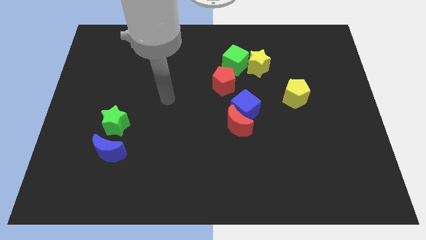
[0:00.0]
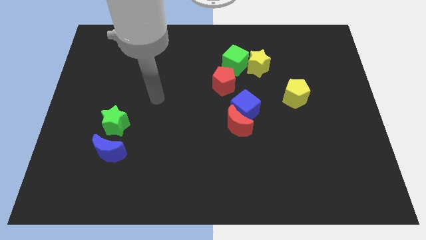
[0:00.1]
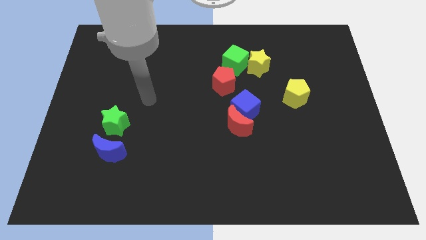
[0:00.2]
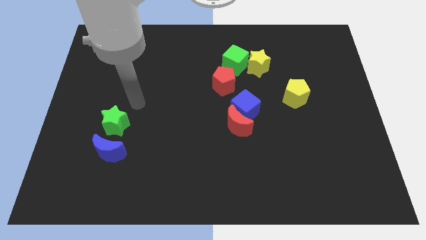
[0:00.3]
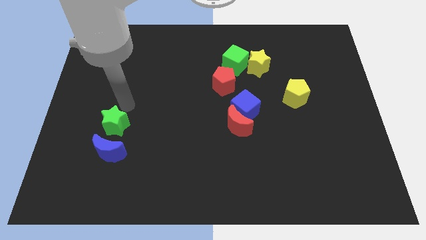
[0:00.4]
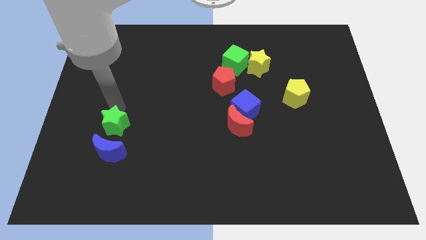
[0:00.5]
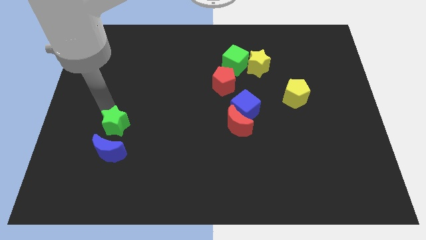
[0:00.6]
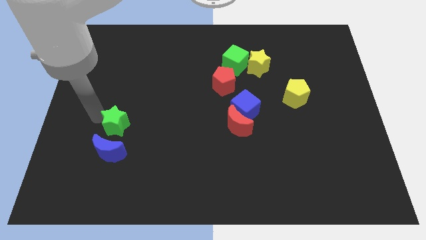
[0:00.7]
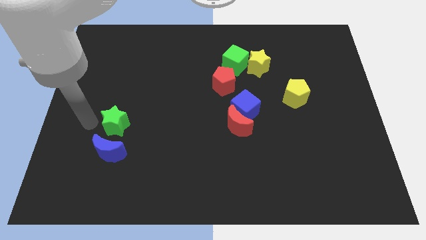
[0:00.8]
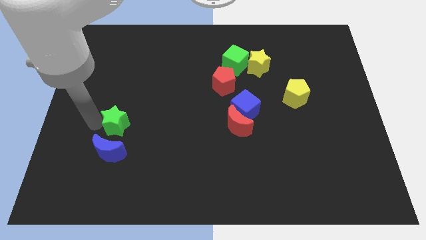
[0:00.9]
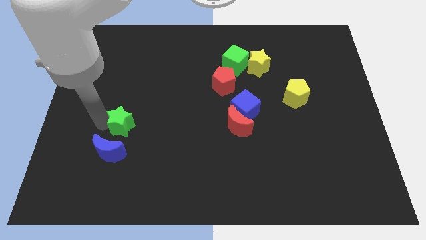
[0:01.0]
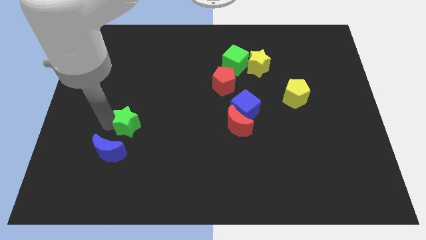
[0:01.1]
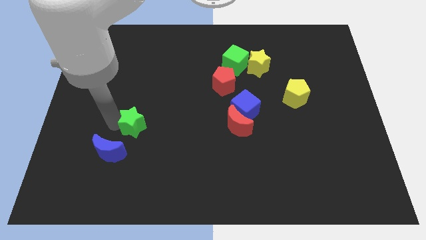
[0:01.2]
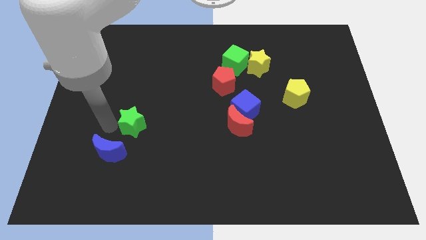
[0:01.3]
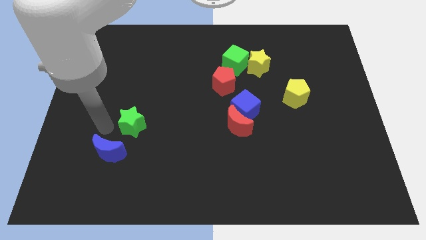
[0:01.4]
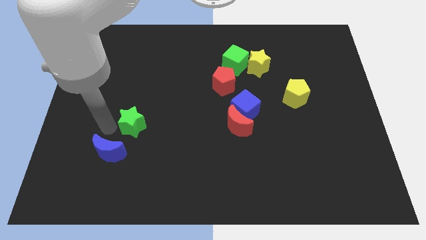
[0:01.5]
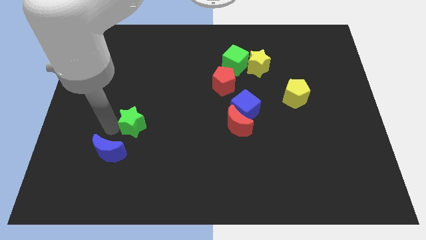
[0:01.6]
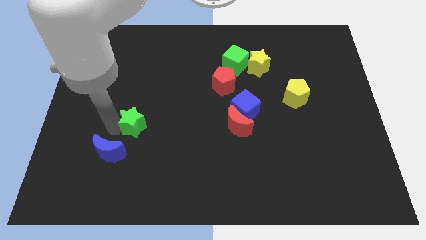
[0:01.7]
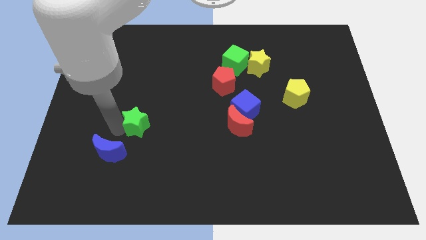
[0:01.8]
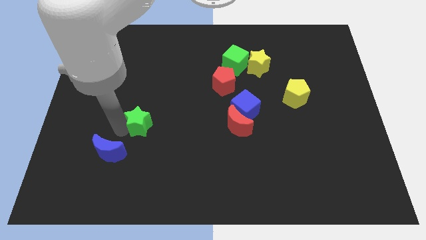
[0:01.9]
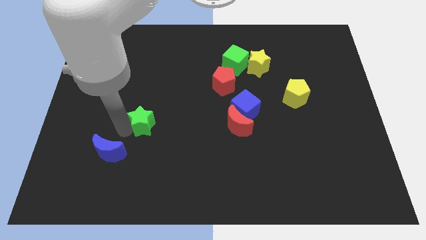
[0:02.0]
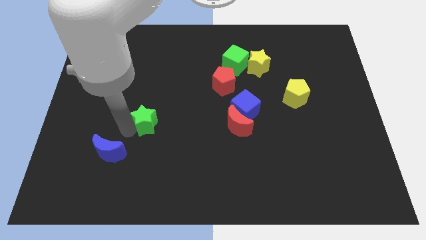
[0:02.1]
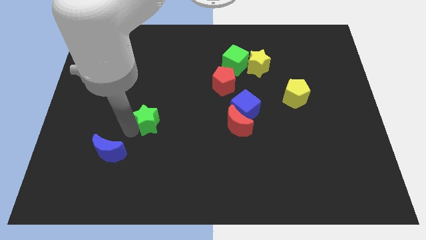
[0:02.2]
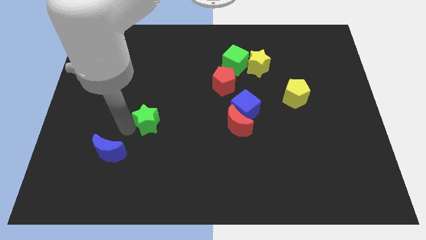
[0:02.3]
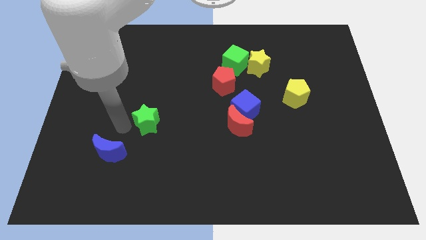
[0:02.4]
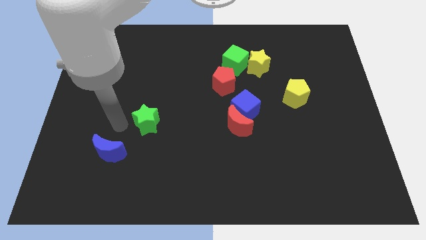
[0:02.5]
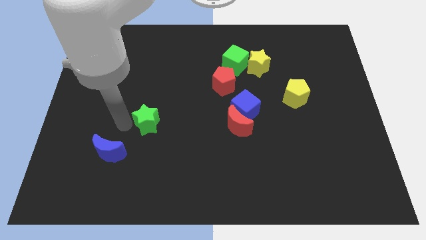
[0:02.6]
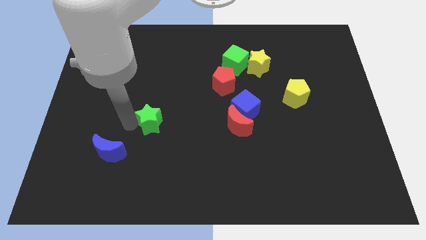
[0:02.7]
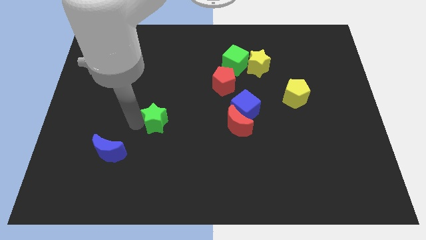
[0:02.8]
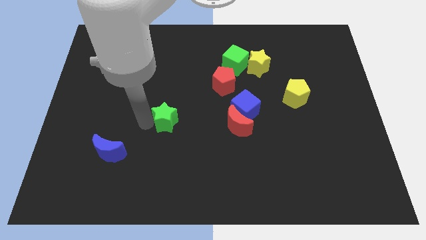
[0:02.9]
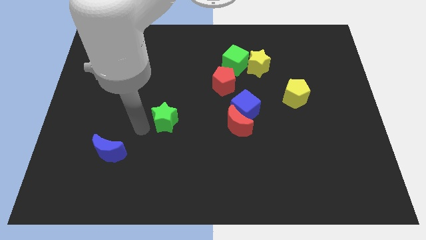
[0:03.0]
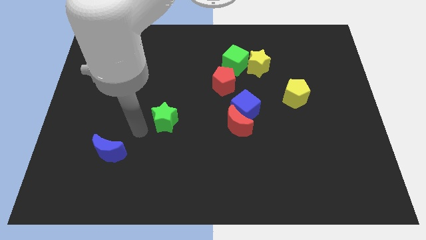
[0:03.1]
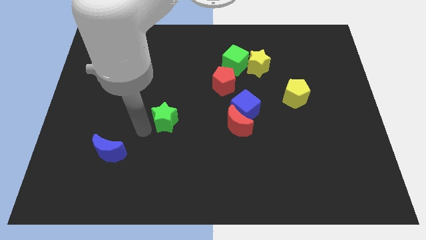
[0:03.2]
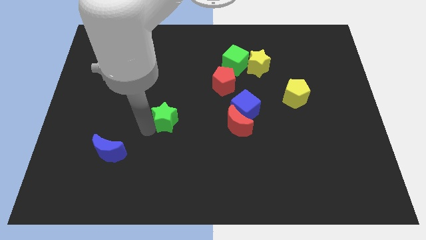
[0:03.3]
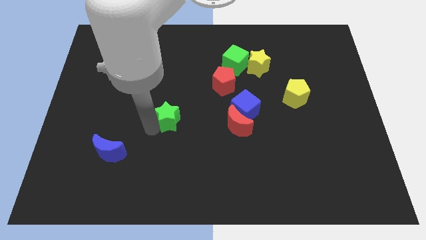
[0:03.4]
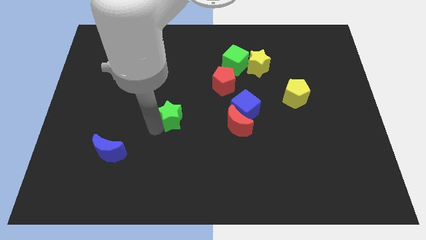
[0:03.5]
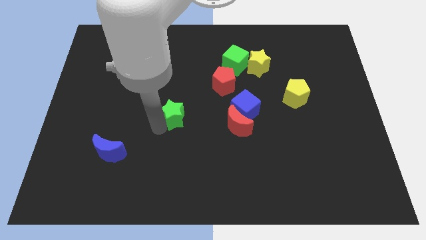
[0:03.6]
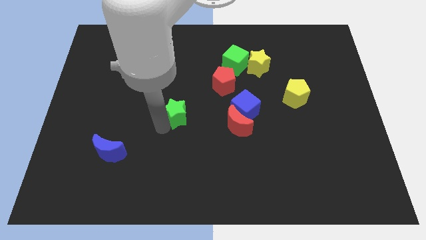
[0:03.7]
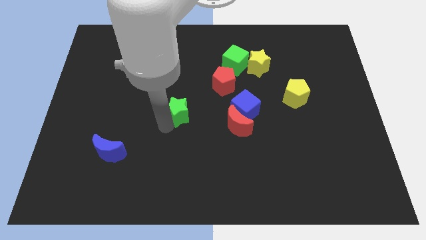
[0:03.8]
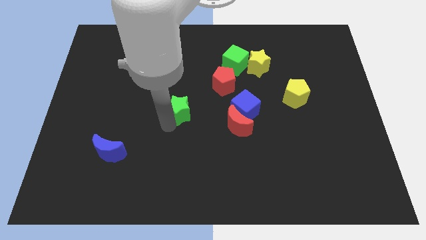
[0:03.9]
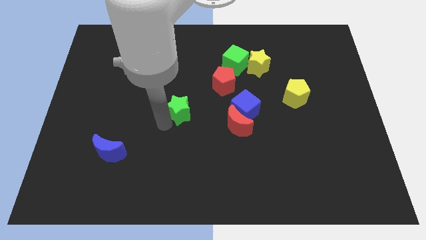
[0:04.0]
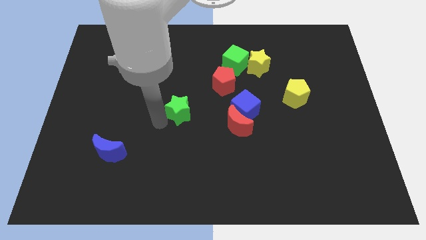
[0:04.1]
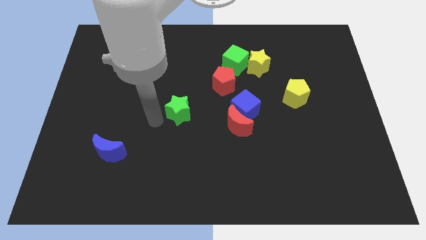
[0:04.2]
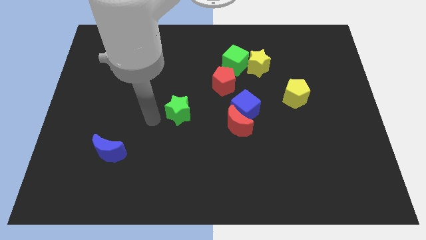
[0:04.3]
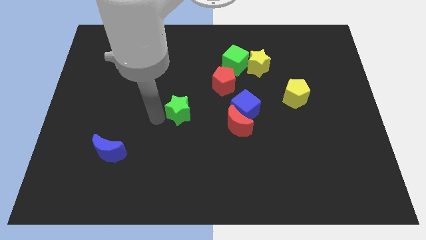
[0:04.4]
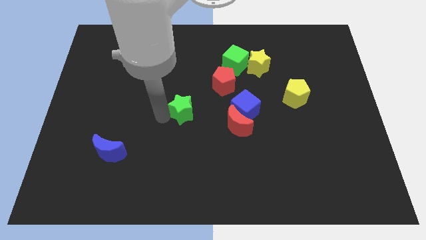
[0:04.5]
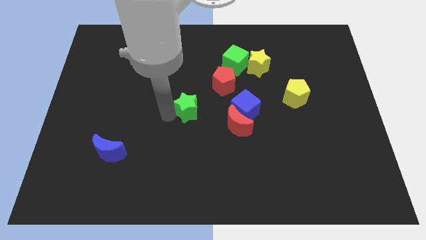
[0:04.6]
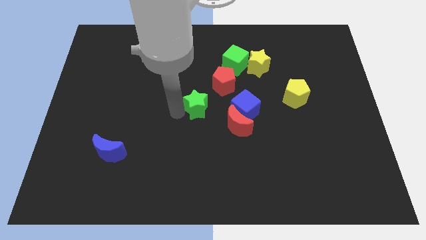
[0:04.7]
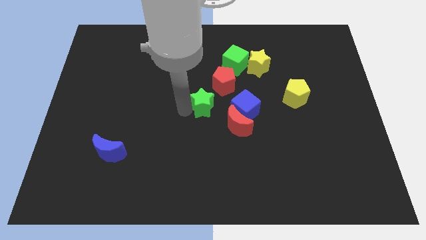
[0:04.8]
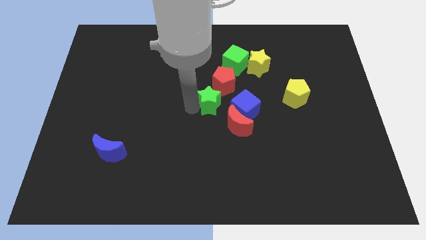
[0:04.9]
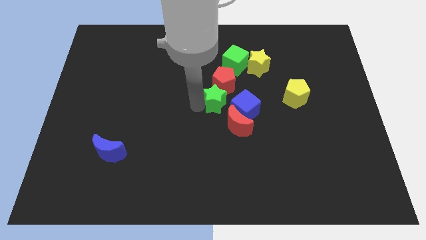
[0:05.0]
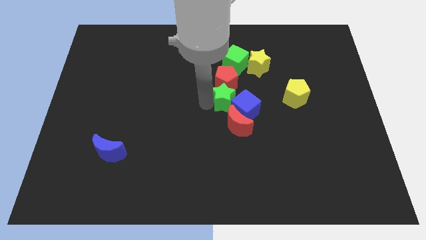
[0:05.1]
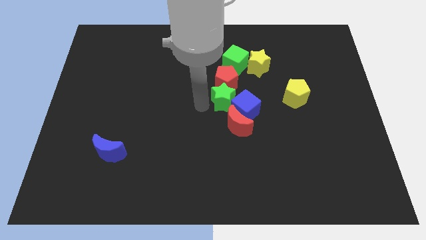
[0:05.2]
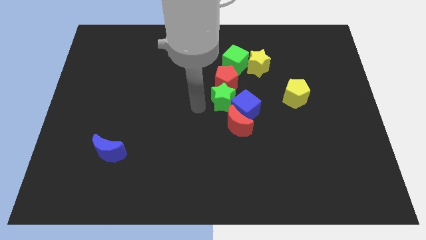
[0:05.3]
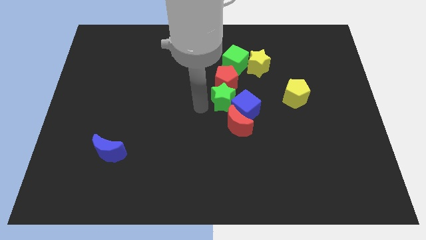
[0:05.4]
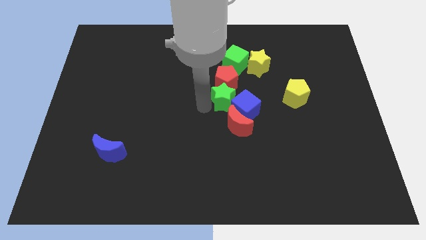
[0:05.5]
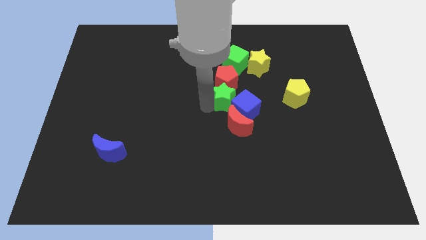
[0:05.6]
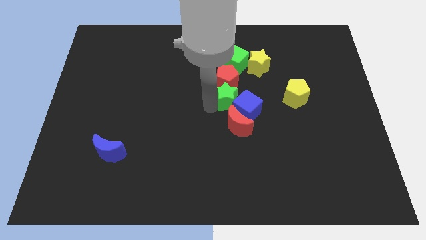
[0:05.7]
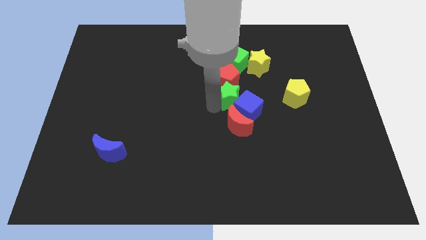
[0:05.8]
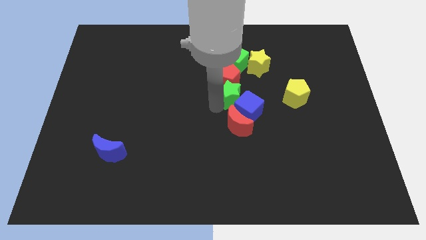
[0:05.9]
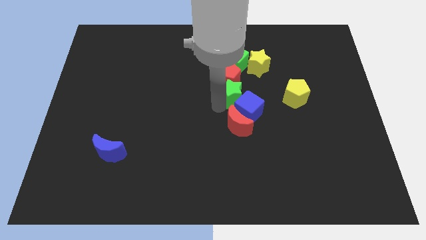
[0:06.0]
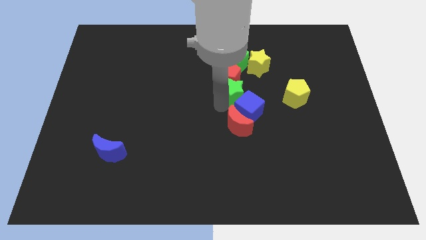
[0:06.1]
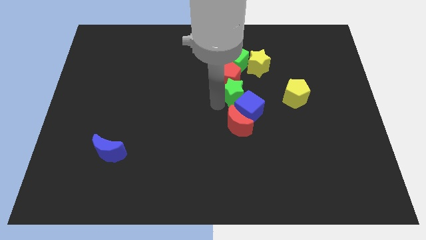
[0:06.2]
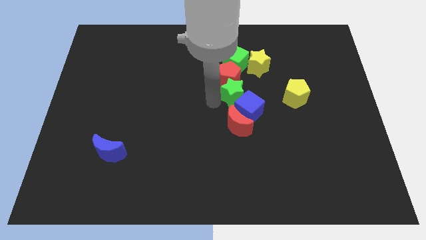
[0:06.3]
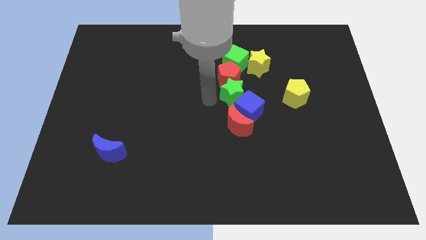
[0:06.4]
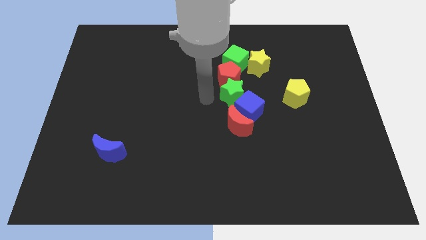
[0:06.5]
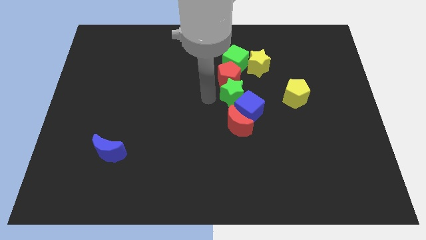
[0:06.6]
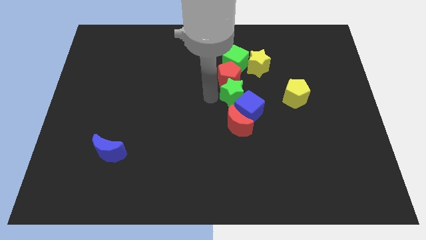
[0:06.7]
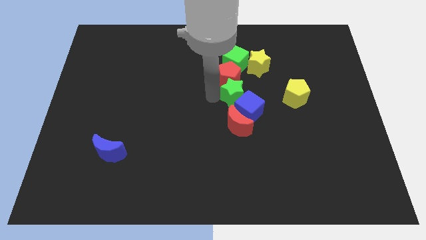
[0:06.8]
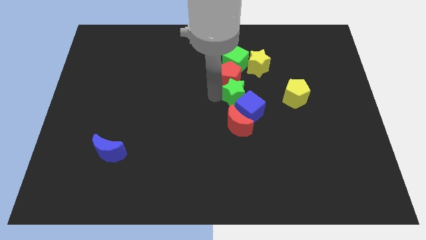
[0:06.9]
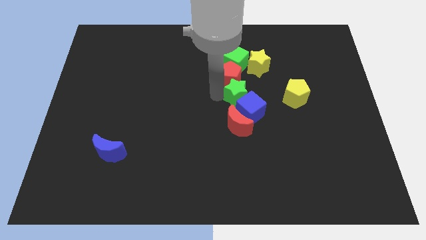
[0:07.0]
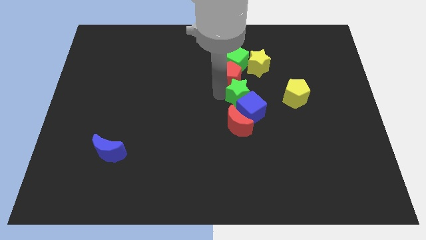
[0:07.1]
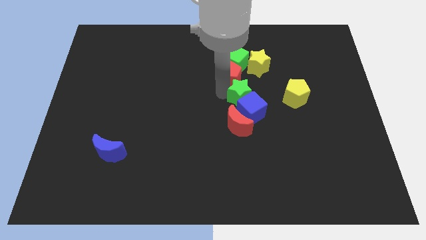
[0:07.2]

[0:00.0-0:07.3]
put the green star below the yellow star
